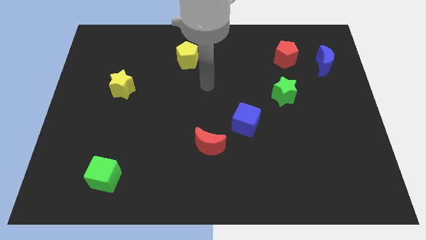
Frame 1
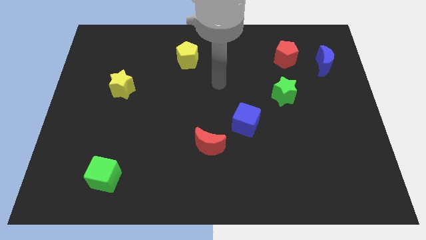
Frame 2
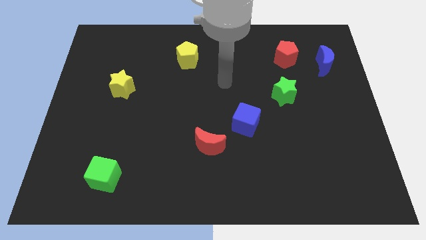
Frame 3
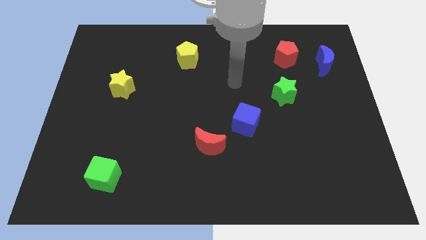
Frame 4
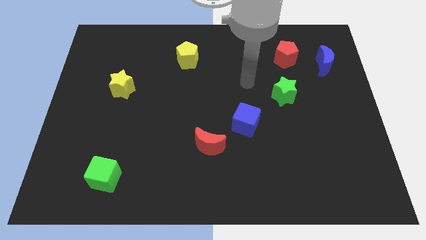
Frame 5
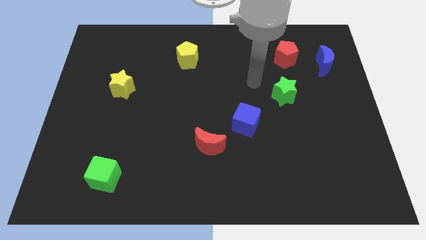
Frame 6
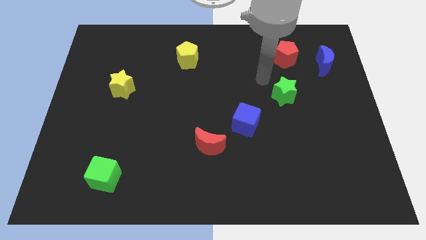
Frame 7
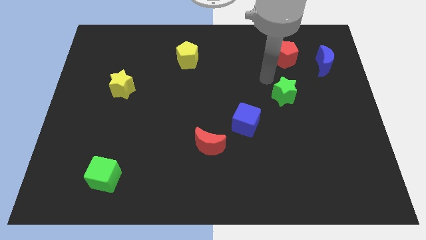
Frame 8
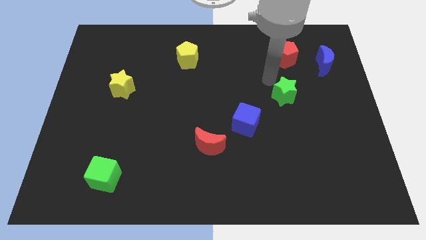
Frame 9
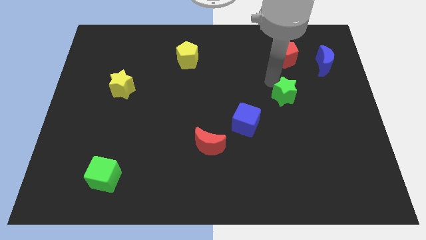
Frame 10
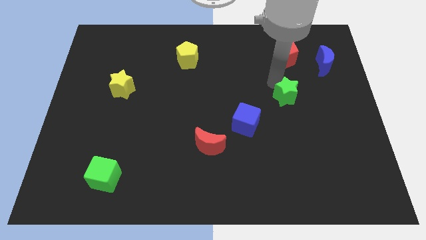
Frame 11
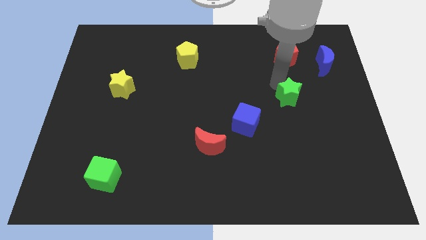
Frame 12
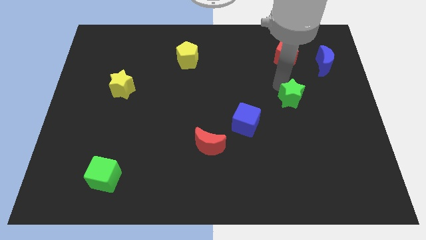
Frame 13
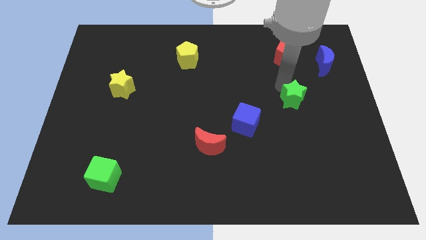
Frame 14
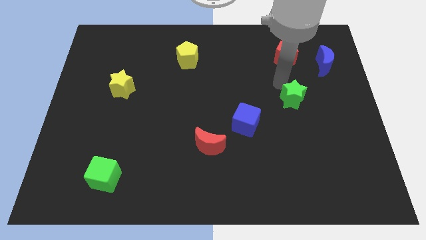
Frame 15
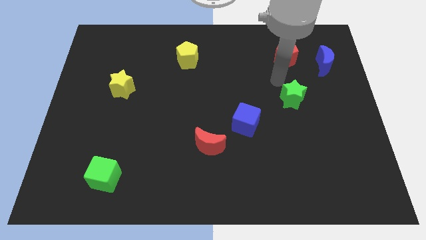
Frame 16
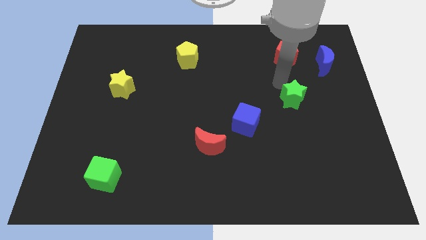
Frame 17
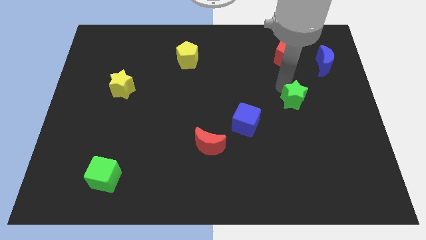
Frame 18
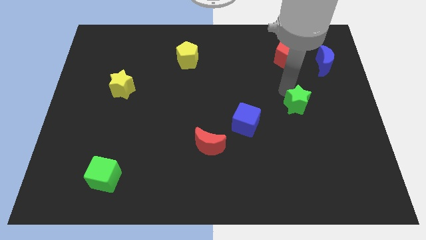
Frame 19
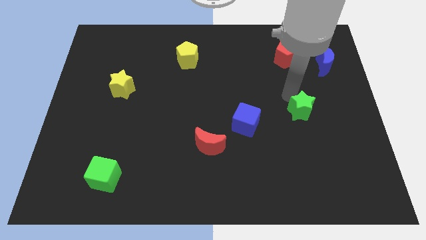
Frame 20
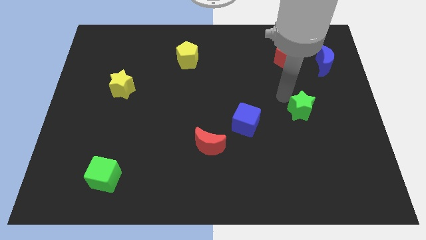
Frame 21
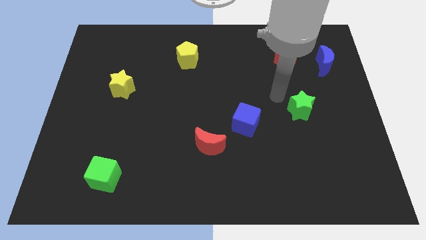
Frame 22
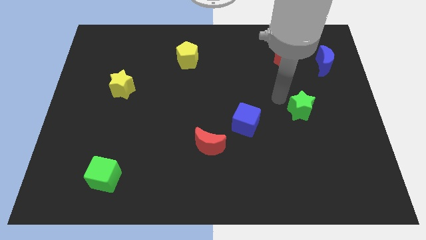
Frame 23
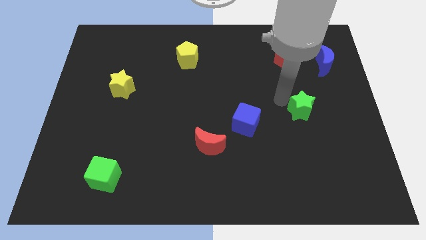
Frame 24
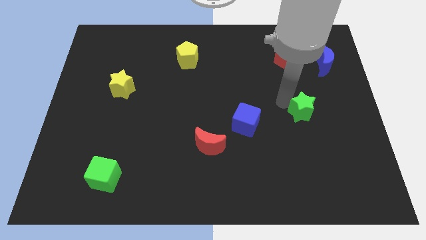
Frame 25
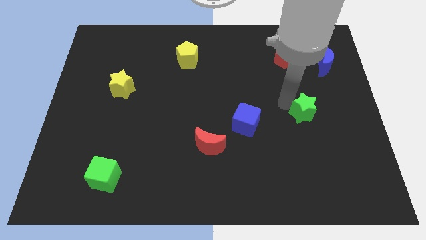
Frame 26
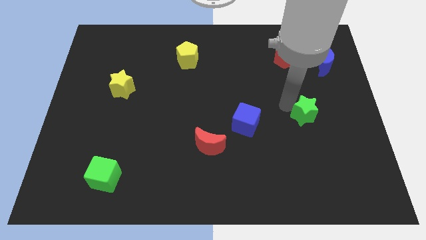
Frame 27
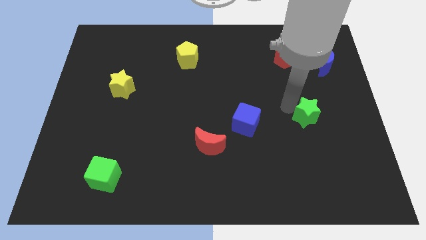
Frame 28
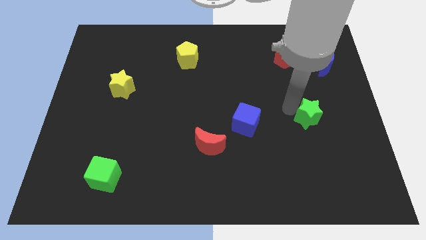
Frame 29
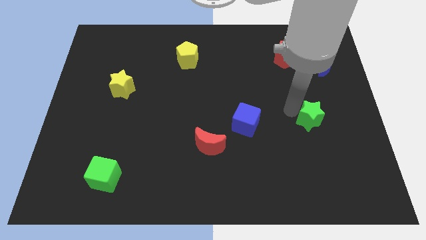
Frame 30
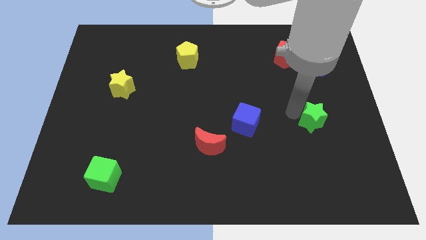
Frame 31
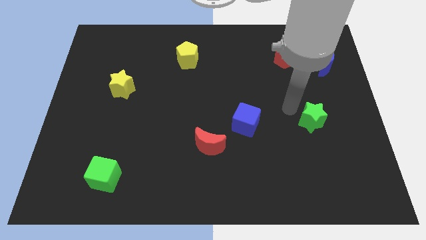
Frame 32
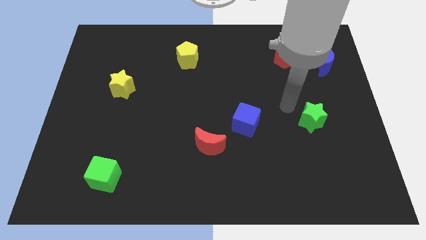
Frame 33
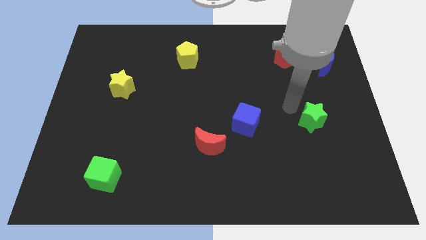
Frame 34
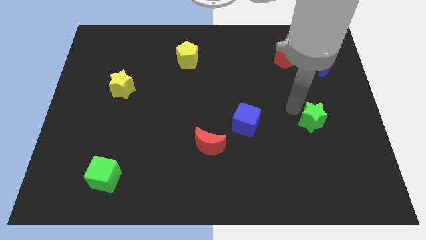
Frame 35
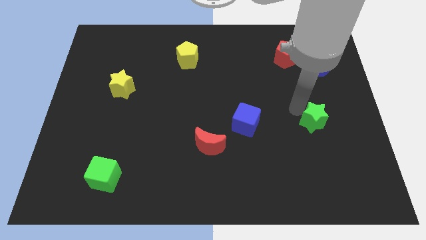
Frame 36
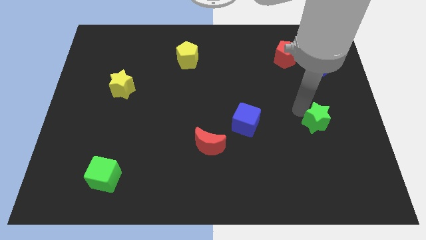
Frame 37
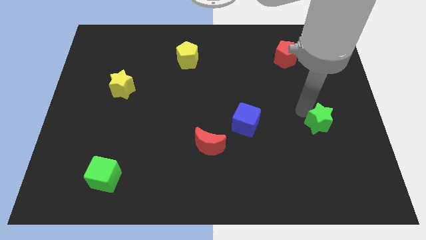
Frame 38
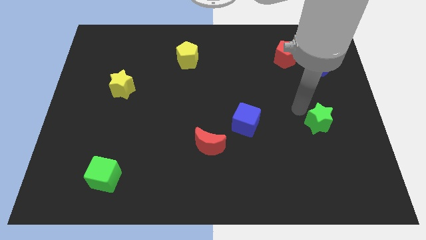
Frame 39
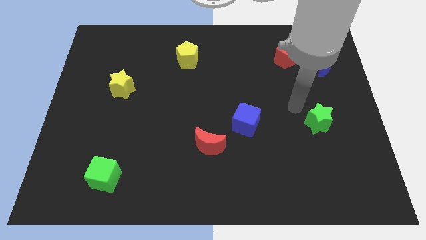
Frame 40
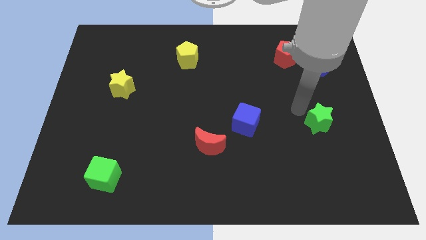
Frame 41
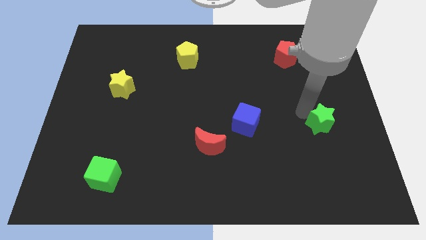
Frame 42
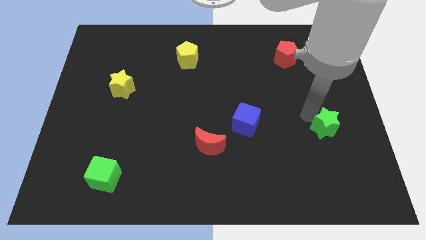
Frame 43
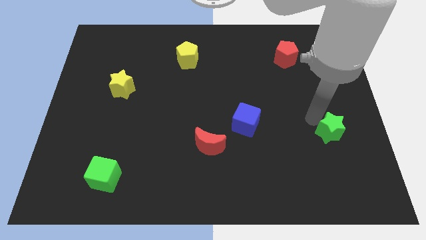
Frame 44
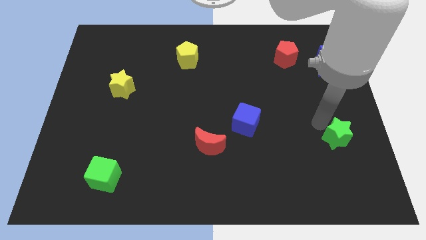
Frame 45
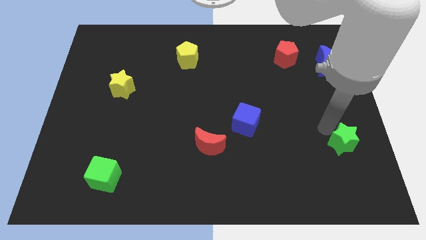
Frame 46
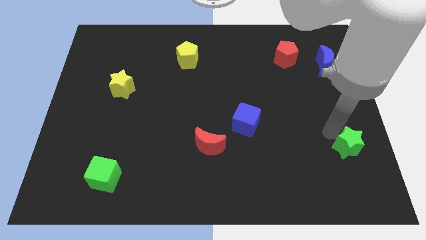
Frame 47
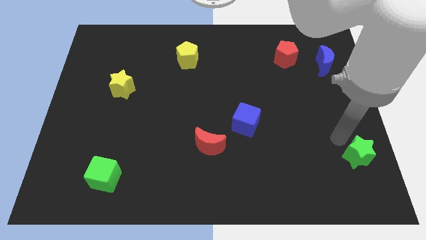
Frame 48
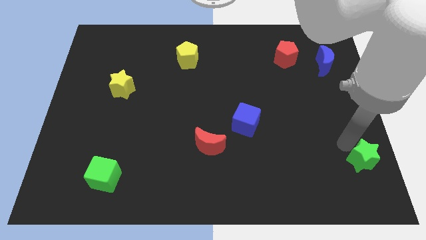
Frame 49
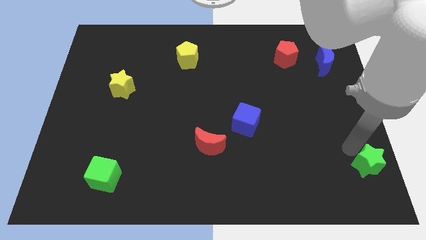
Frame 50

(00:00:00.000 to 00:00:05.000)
move the green star to the bottom right
